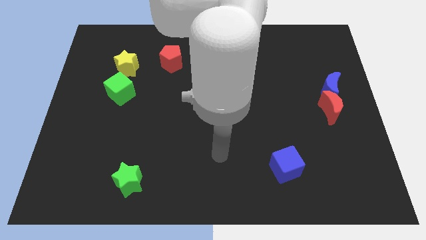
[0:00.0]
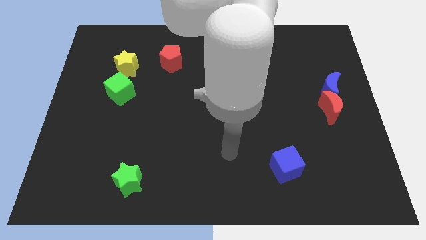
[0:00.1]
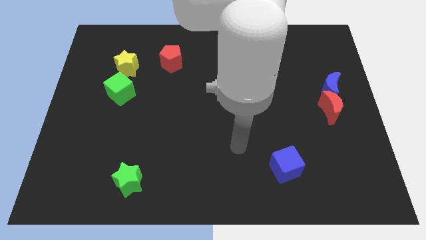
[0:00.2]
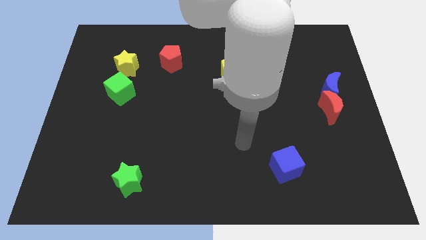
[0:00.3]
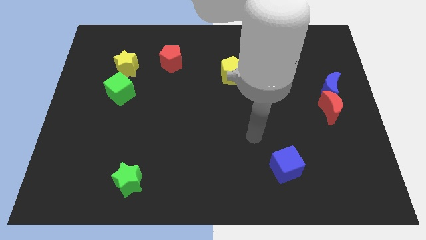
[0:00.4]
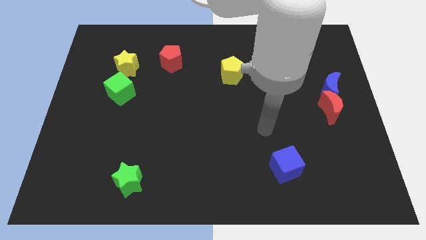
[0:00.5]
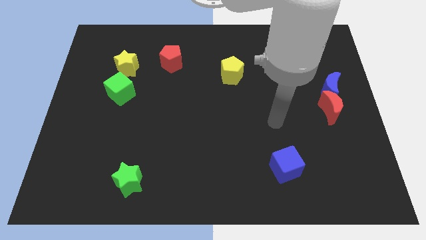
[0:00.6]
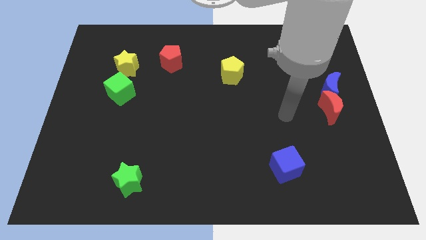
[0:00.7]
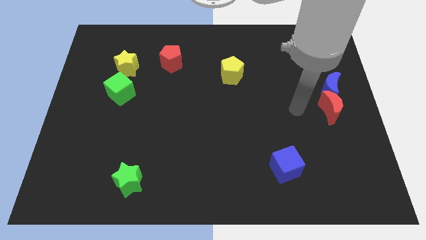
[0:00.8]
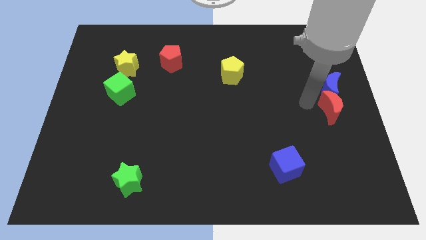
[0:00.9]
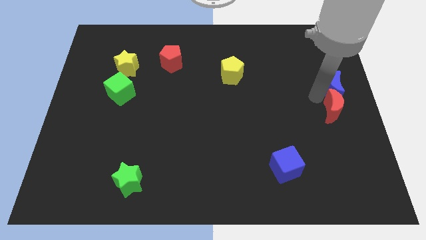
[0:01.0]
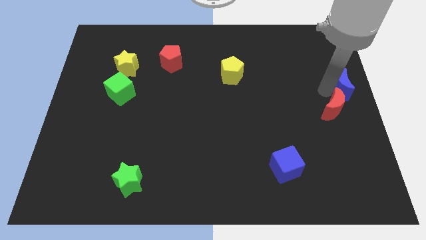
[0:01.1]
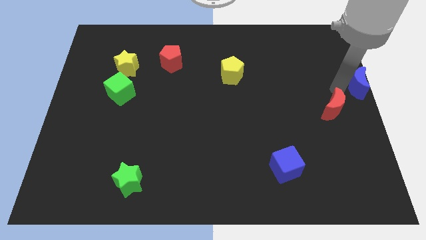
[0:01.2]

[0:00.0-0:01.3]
move the red moon away from the blue moon

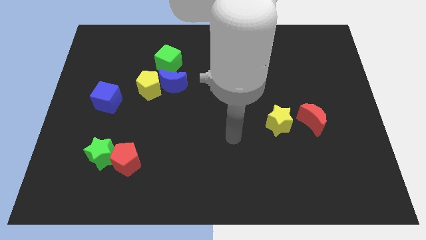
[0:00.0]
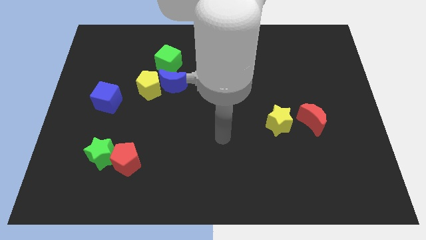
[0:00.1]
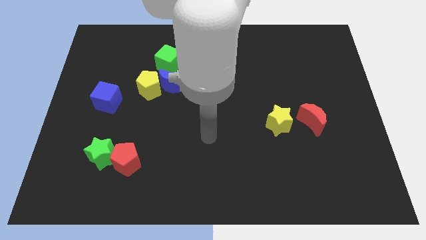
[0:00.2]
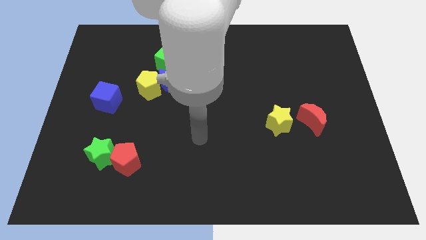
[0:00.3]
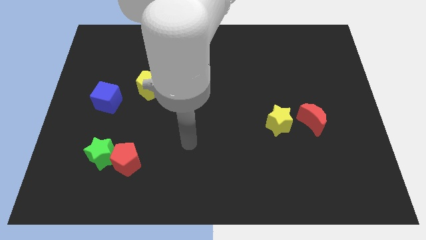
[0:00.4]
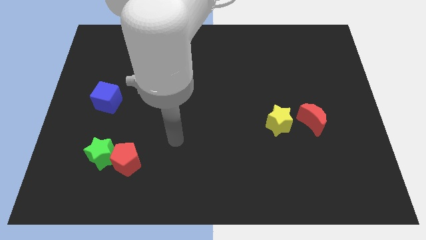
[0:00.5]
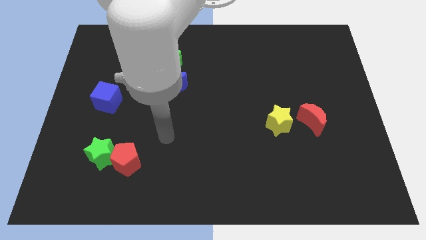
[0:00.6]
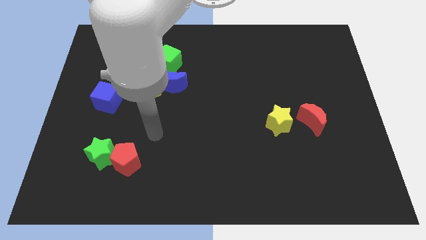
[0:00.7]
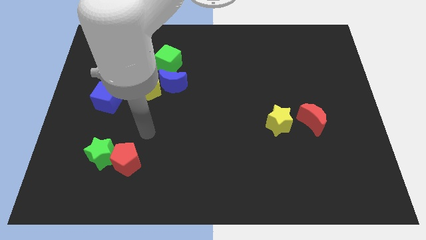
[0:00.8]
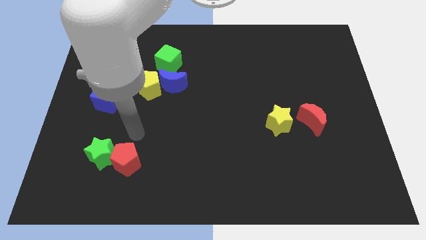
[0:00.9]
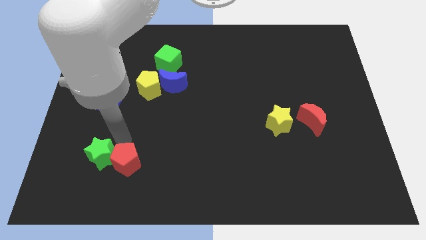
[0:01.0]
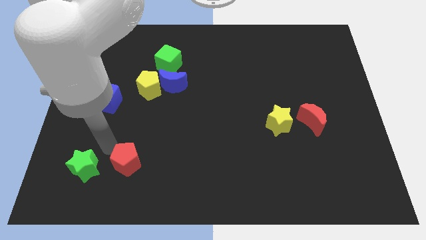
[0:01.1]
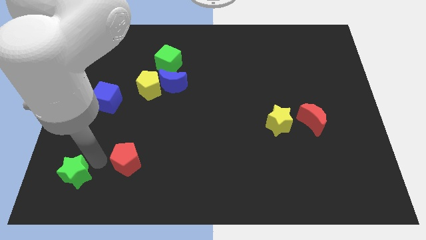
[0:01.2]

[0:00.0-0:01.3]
separate the red pentagon from the green star

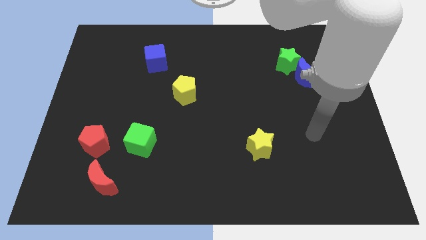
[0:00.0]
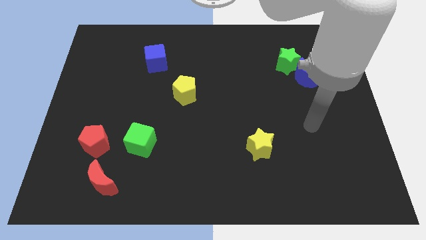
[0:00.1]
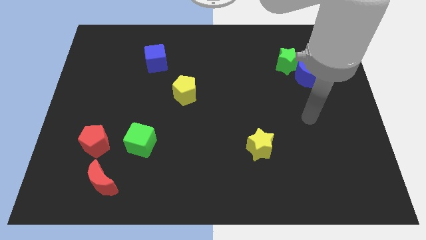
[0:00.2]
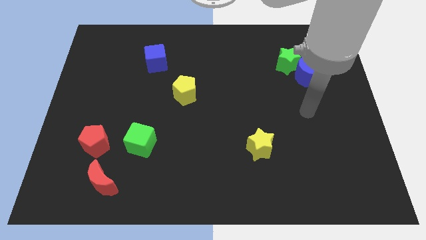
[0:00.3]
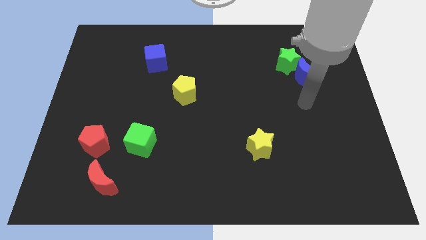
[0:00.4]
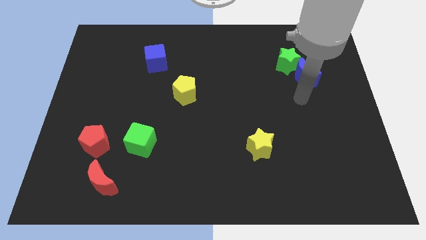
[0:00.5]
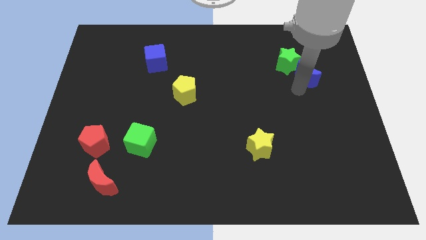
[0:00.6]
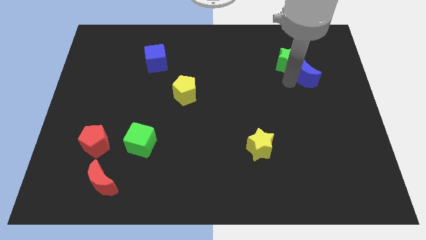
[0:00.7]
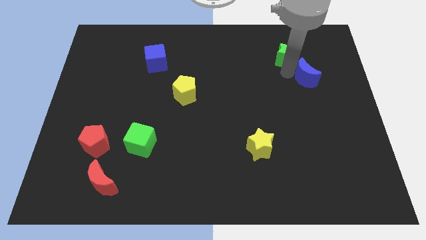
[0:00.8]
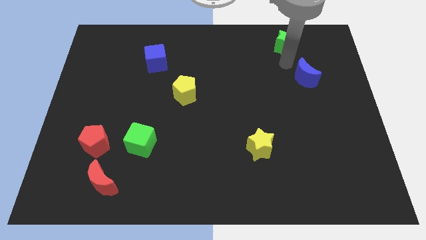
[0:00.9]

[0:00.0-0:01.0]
separate the blue moon from the green star

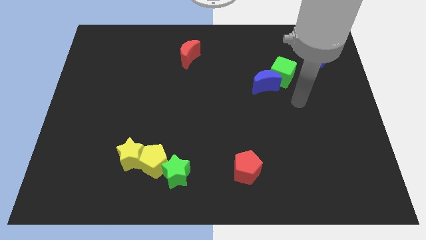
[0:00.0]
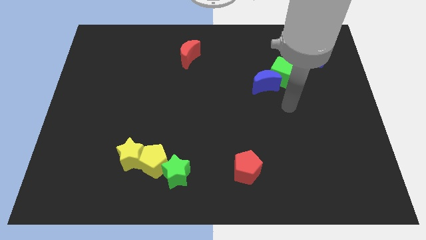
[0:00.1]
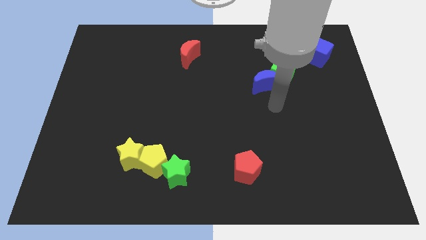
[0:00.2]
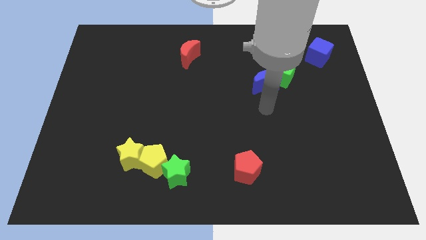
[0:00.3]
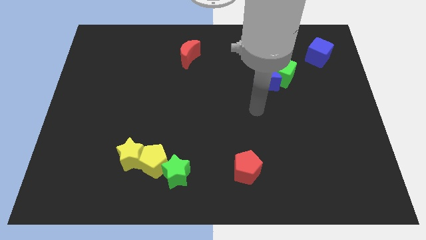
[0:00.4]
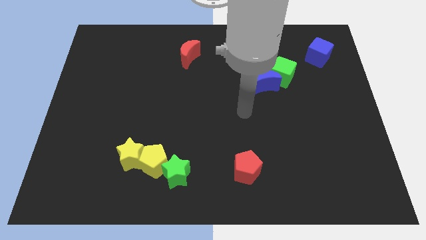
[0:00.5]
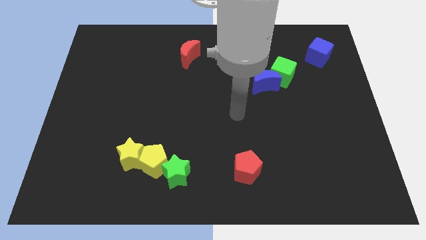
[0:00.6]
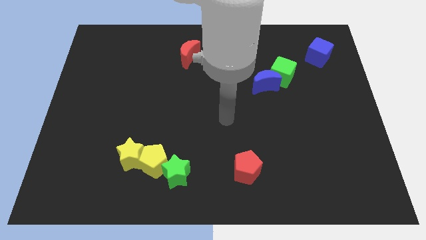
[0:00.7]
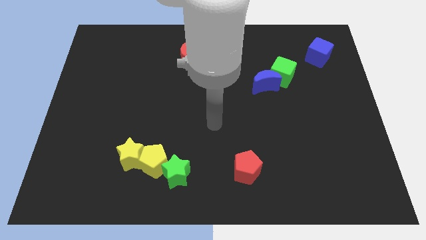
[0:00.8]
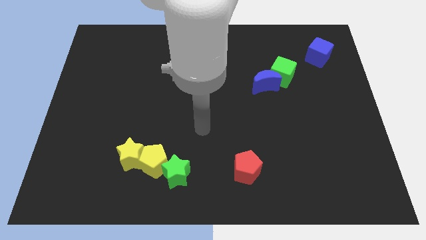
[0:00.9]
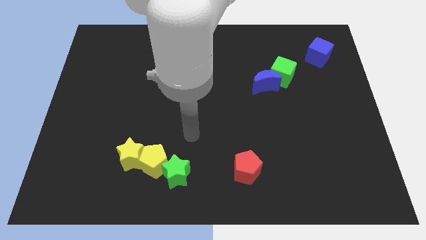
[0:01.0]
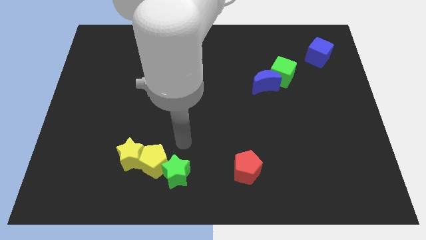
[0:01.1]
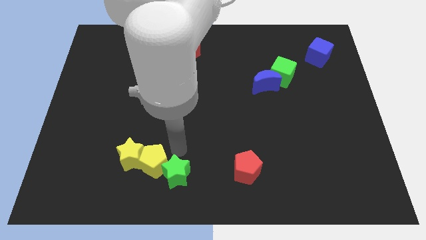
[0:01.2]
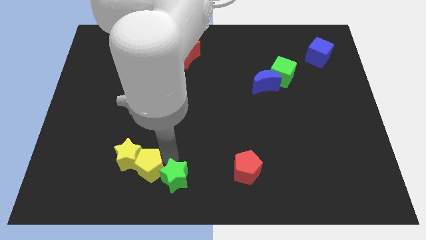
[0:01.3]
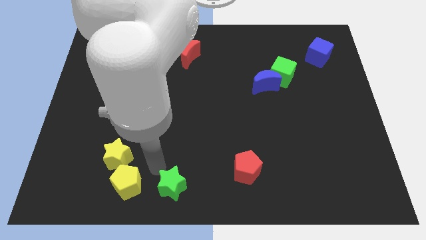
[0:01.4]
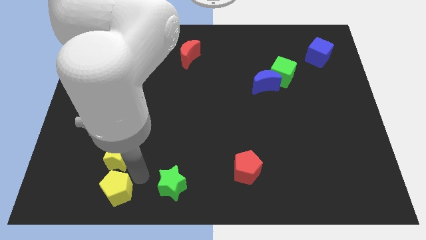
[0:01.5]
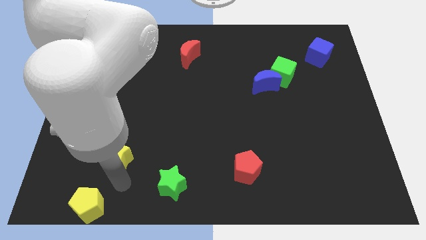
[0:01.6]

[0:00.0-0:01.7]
pull the yellow star apart from the yellow pentagon

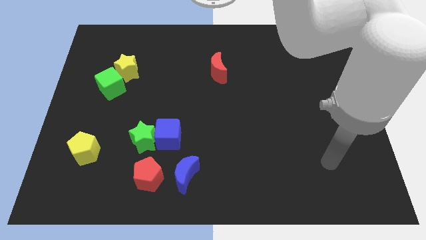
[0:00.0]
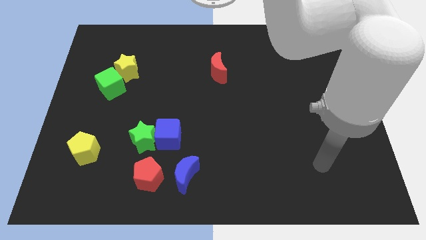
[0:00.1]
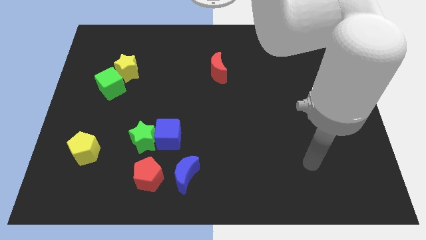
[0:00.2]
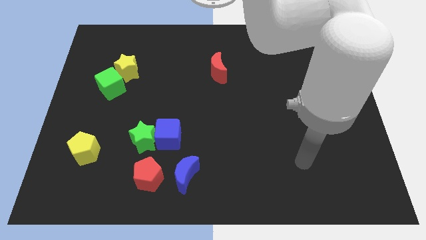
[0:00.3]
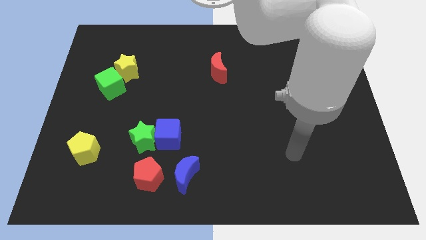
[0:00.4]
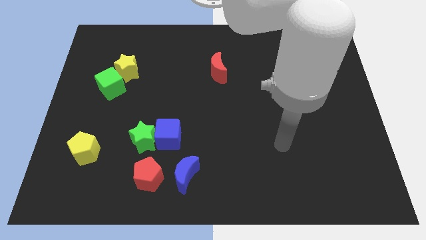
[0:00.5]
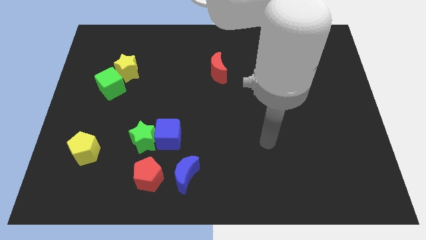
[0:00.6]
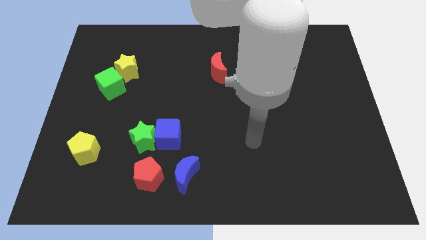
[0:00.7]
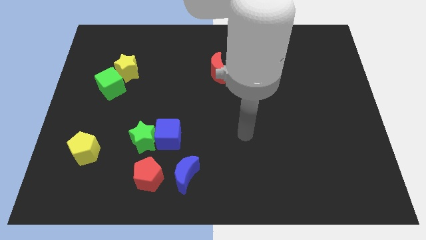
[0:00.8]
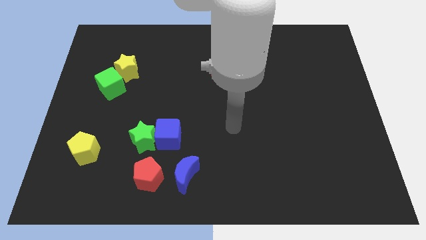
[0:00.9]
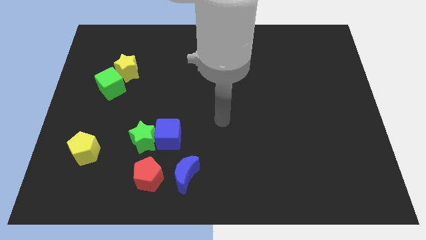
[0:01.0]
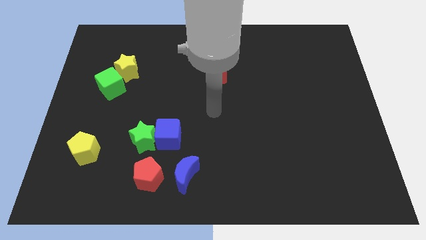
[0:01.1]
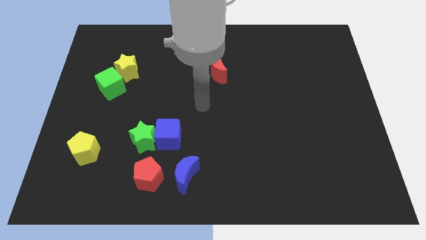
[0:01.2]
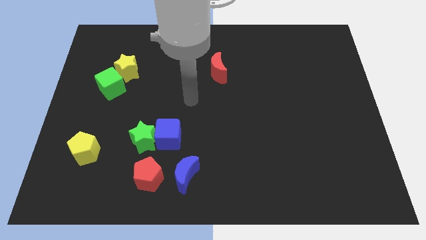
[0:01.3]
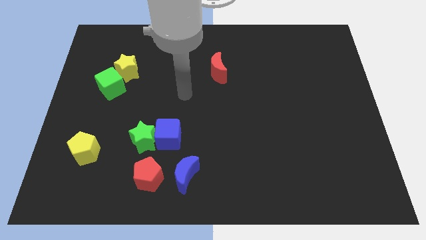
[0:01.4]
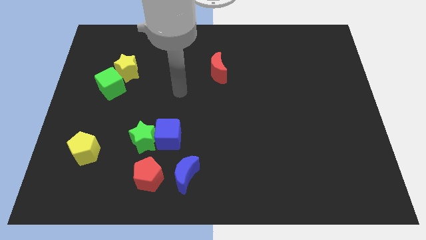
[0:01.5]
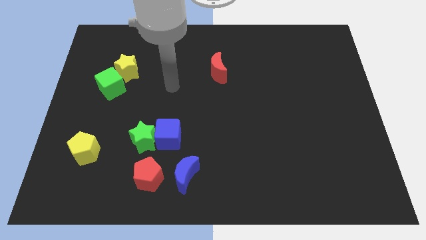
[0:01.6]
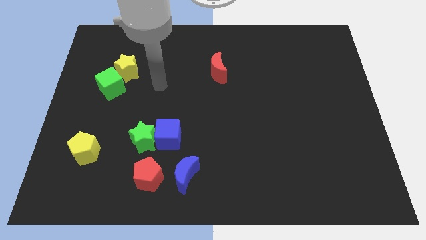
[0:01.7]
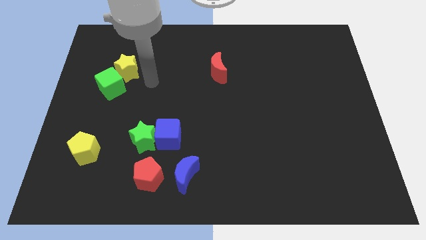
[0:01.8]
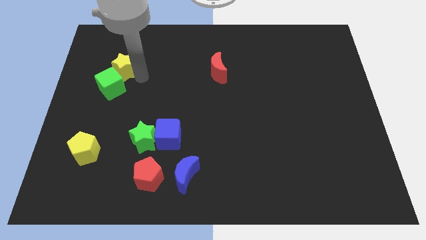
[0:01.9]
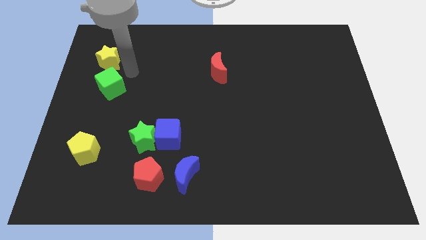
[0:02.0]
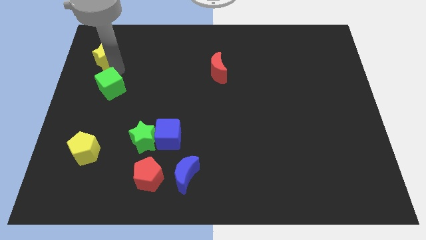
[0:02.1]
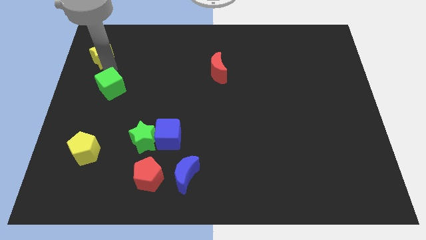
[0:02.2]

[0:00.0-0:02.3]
move the green cube away from the yellow star

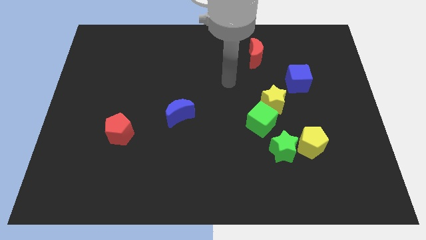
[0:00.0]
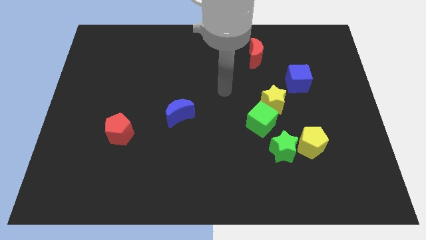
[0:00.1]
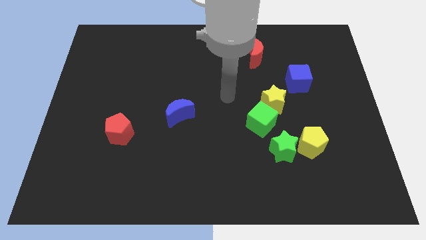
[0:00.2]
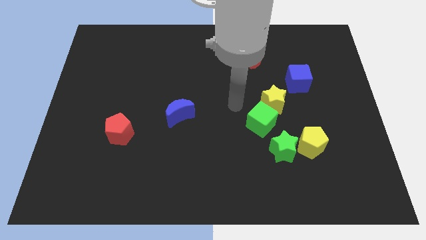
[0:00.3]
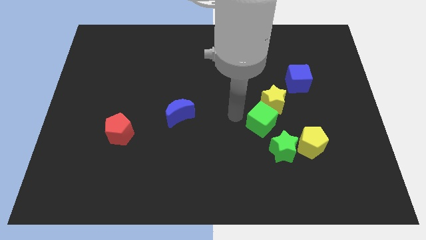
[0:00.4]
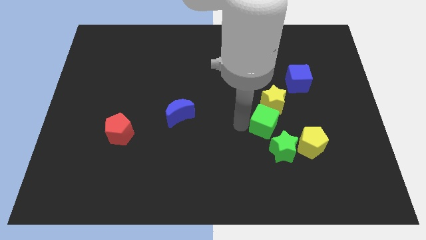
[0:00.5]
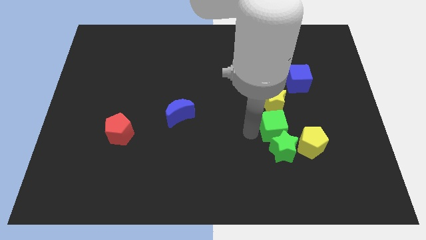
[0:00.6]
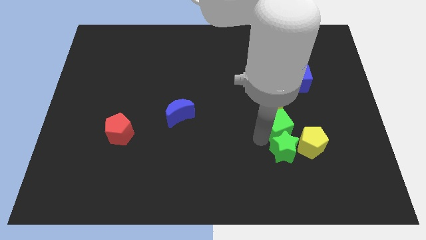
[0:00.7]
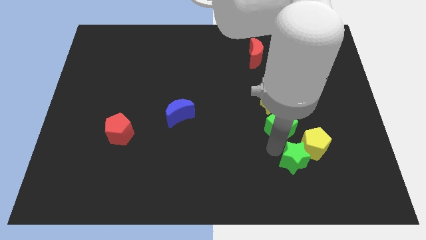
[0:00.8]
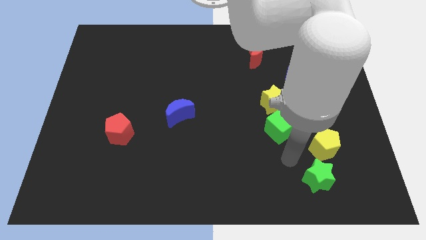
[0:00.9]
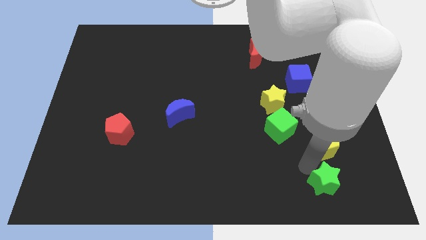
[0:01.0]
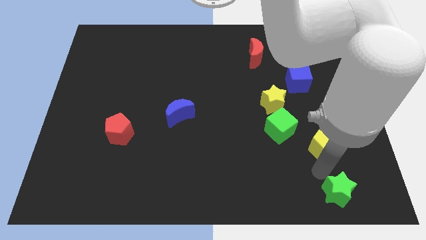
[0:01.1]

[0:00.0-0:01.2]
separate the yellow pentagon from the green star

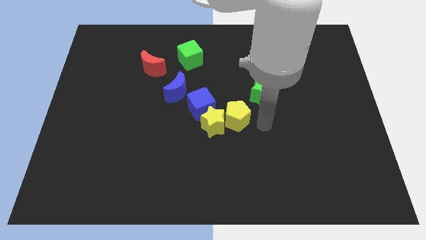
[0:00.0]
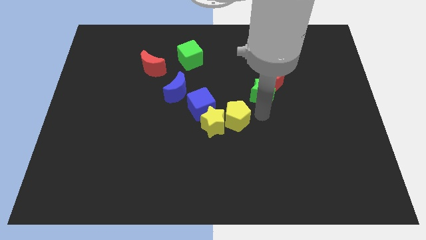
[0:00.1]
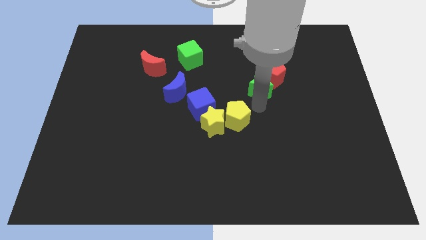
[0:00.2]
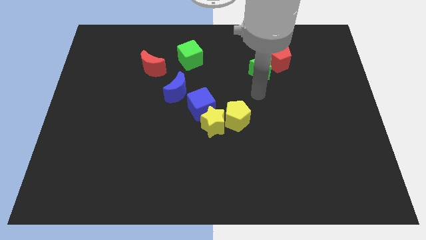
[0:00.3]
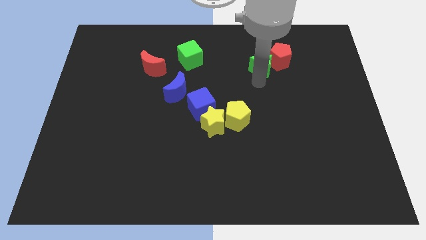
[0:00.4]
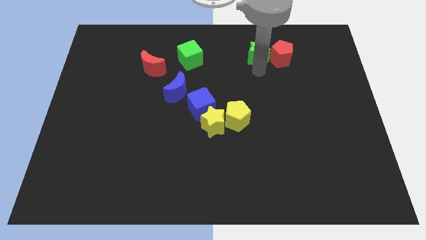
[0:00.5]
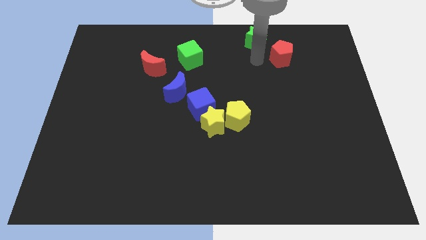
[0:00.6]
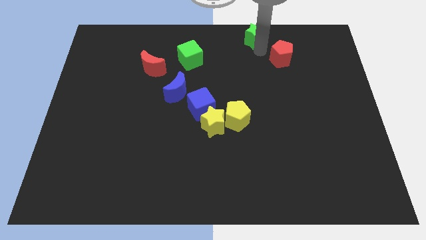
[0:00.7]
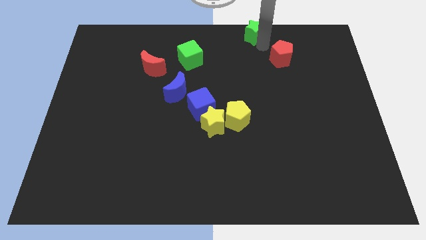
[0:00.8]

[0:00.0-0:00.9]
pull the red pentagon apart from the green star
